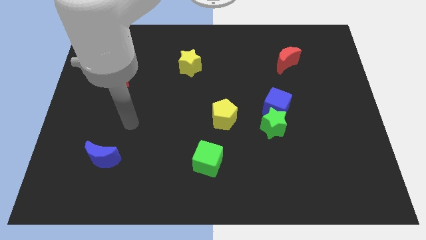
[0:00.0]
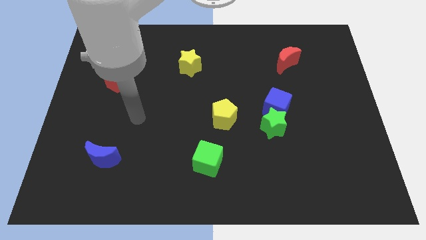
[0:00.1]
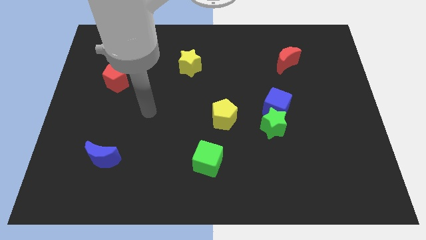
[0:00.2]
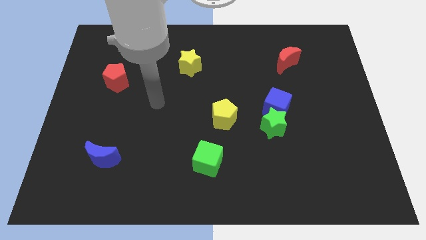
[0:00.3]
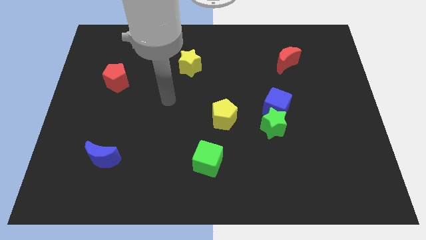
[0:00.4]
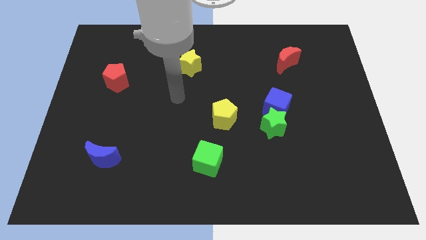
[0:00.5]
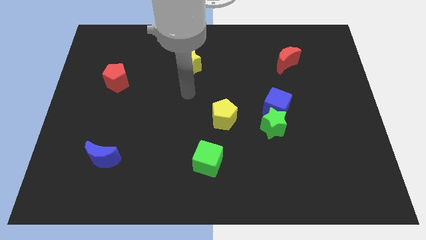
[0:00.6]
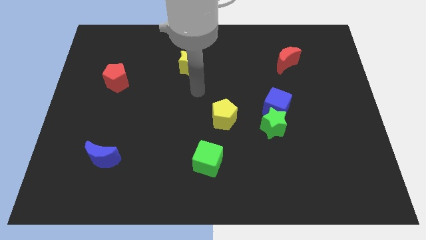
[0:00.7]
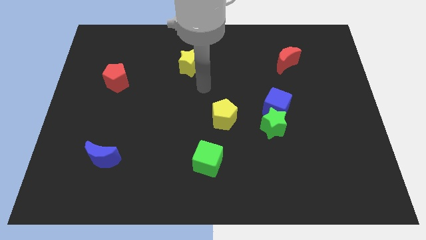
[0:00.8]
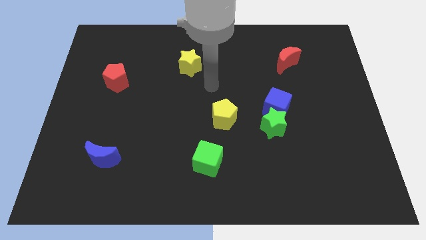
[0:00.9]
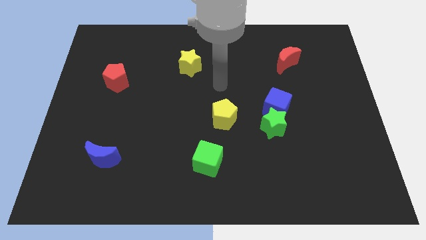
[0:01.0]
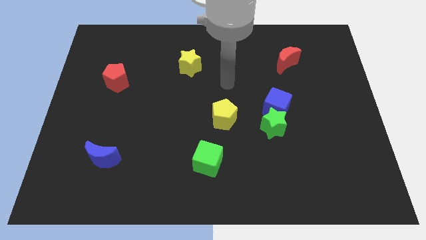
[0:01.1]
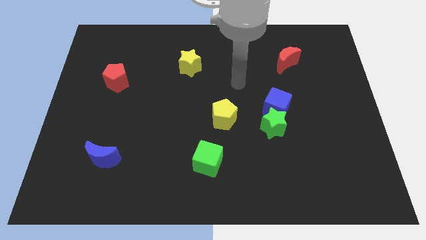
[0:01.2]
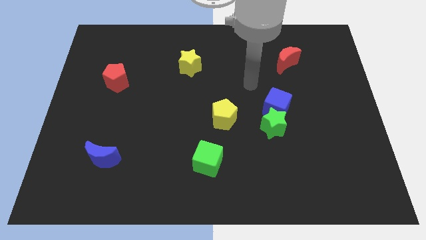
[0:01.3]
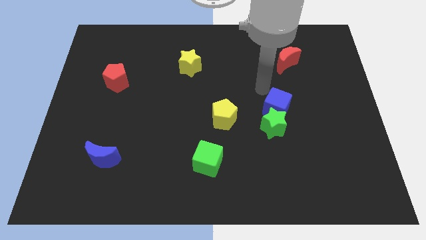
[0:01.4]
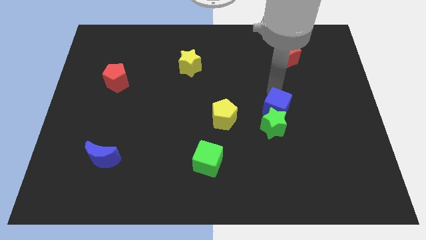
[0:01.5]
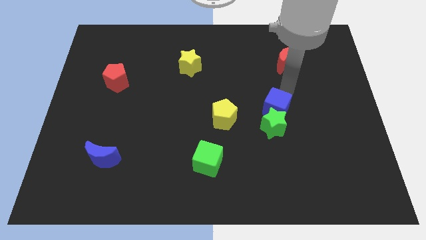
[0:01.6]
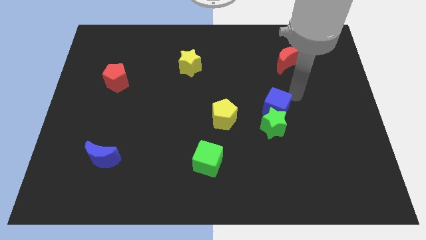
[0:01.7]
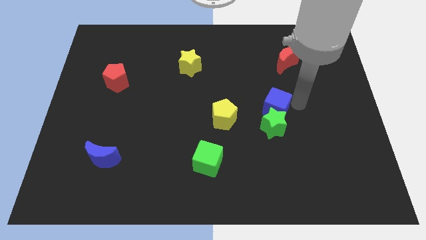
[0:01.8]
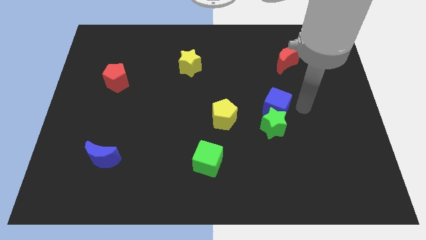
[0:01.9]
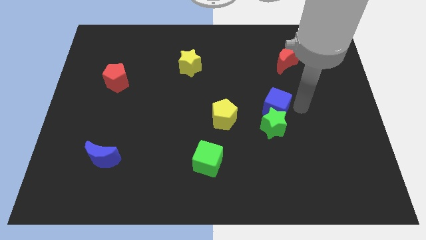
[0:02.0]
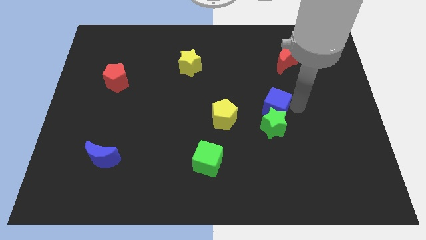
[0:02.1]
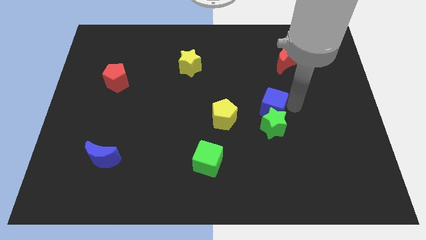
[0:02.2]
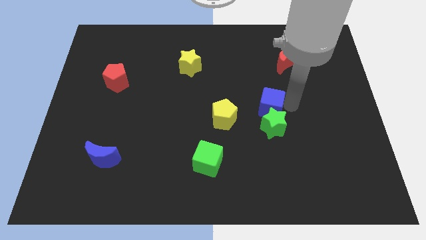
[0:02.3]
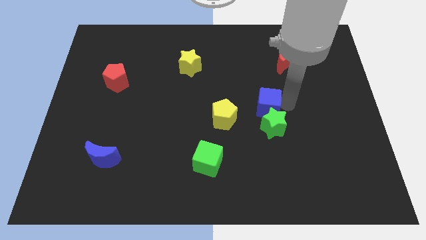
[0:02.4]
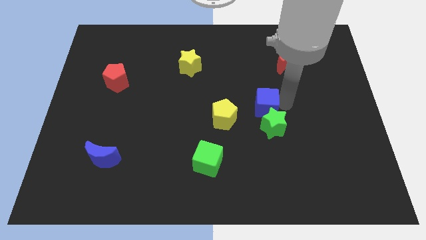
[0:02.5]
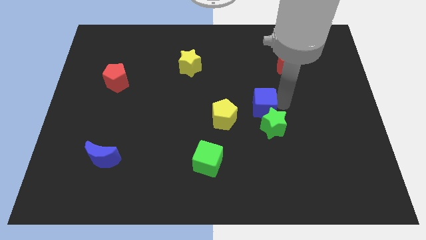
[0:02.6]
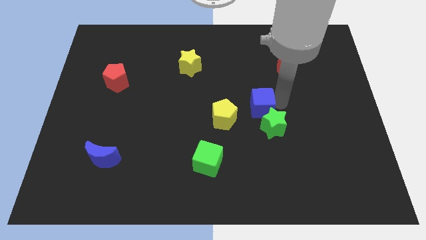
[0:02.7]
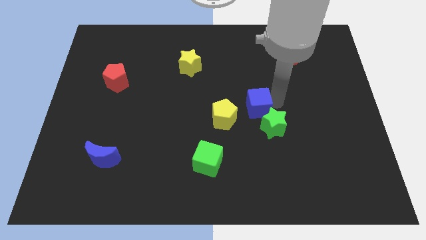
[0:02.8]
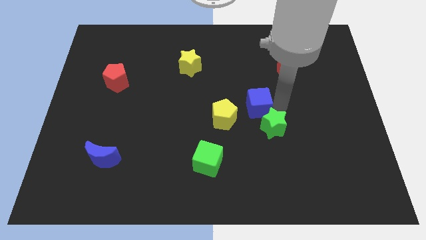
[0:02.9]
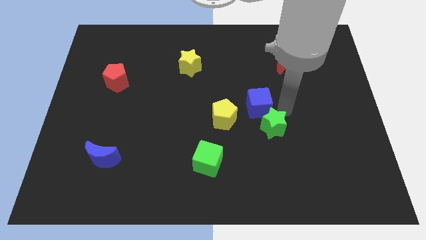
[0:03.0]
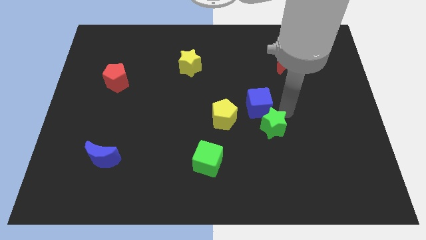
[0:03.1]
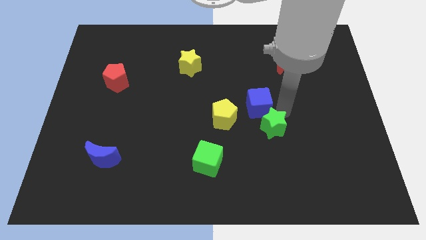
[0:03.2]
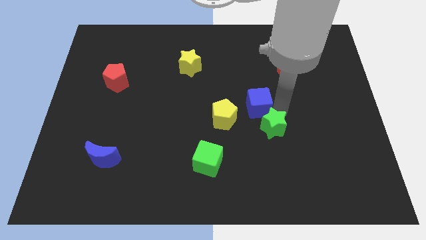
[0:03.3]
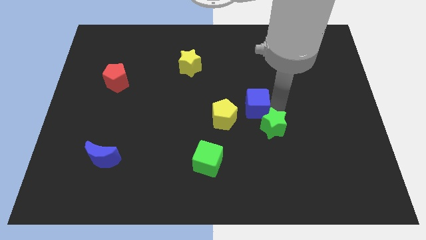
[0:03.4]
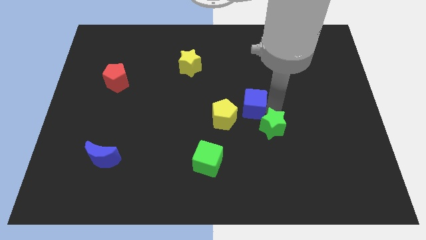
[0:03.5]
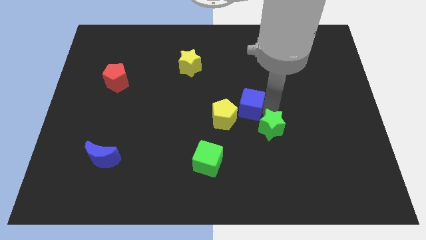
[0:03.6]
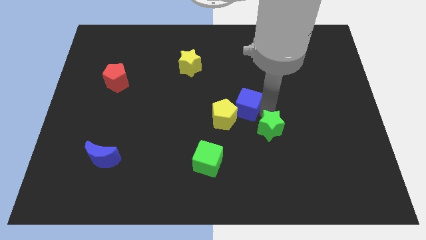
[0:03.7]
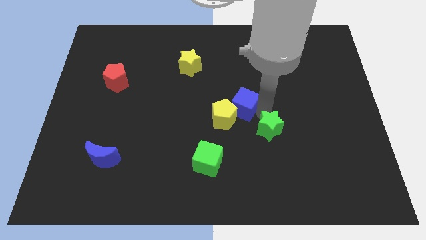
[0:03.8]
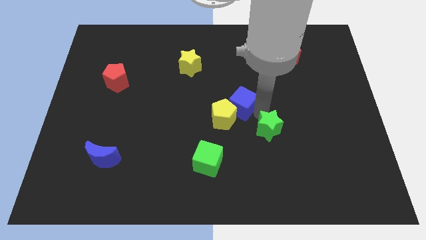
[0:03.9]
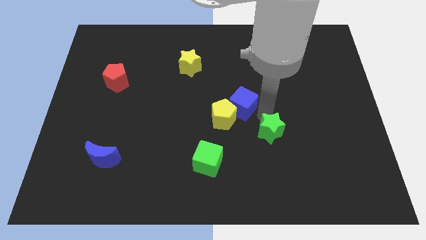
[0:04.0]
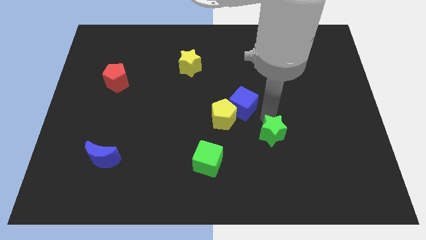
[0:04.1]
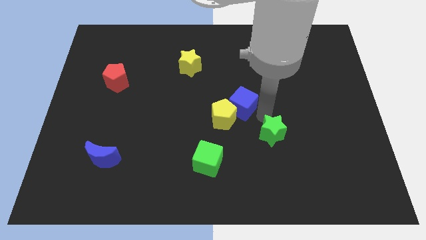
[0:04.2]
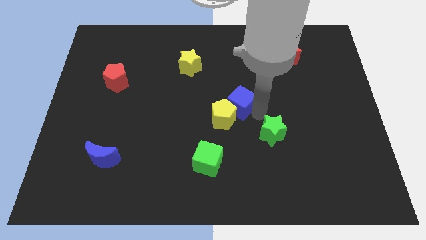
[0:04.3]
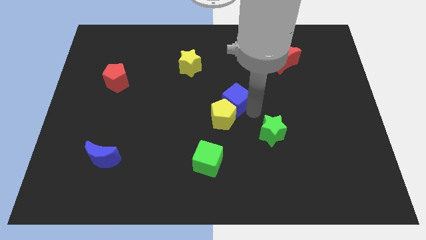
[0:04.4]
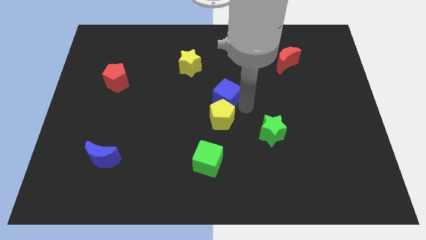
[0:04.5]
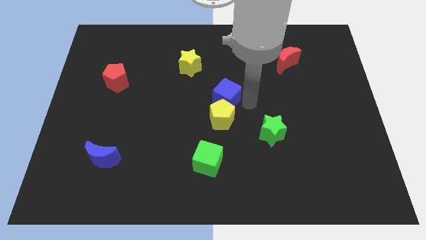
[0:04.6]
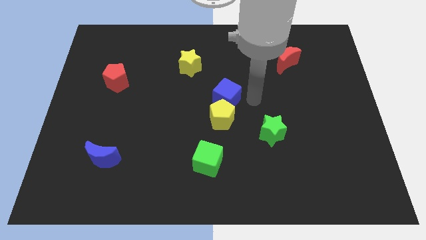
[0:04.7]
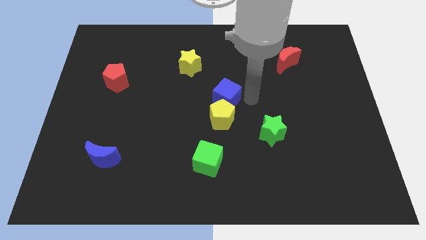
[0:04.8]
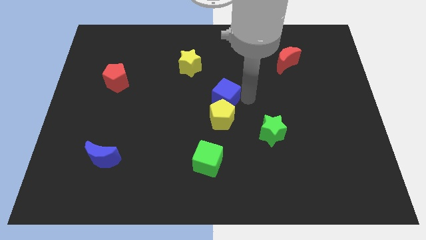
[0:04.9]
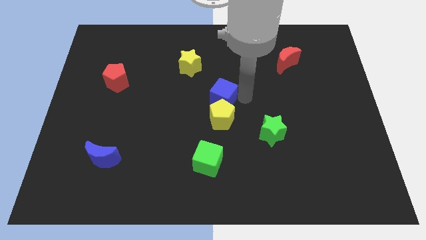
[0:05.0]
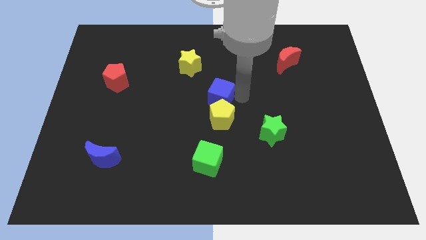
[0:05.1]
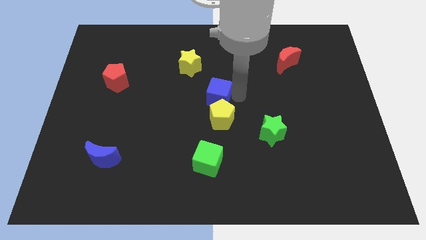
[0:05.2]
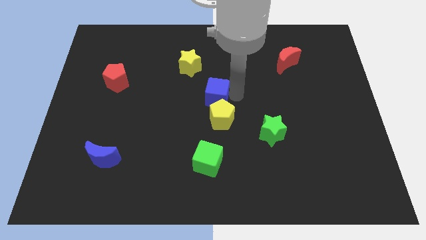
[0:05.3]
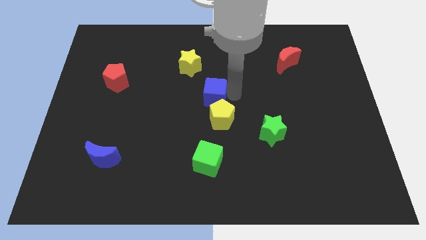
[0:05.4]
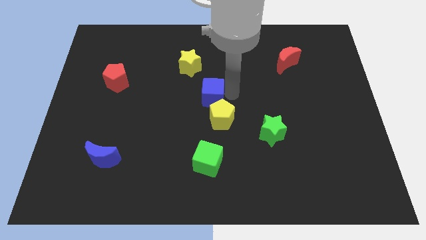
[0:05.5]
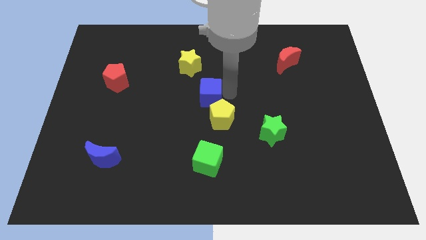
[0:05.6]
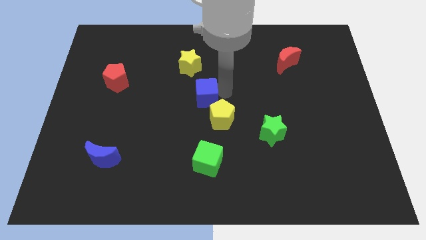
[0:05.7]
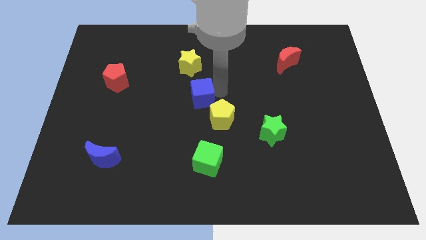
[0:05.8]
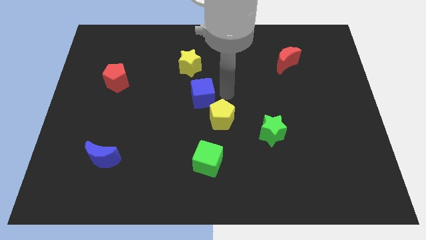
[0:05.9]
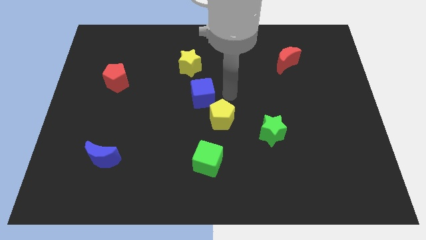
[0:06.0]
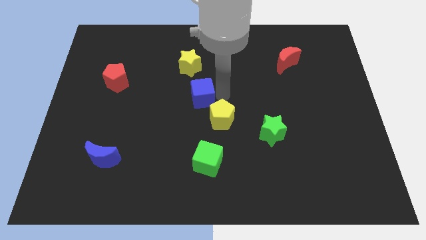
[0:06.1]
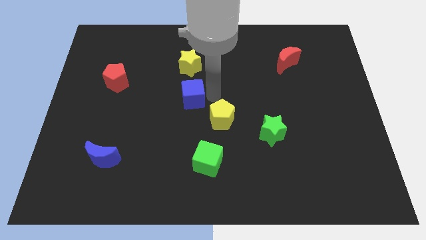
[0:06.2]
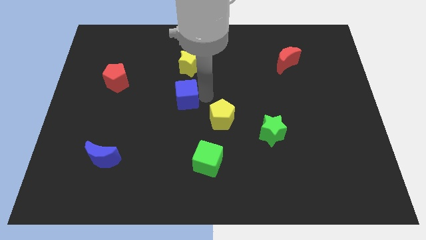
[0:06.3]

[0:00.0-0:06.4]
move the blue cube to the left

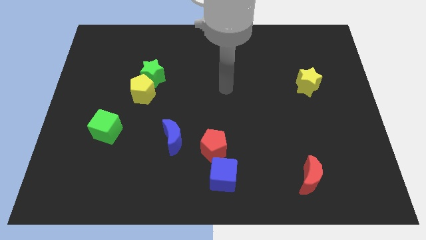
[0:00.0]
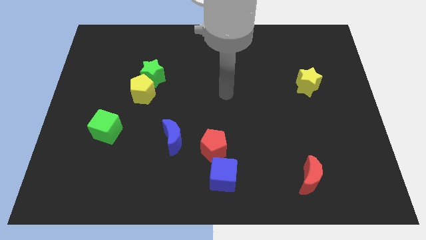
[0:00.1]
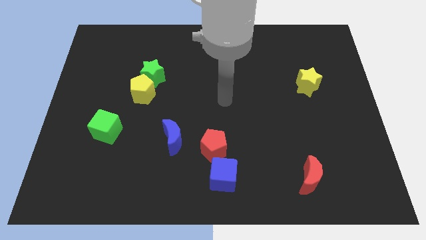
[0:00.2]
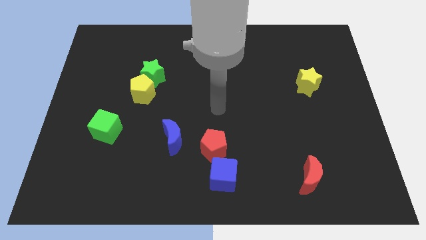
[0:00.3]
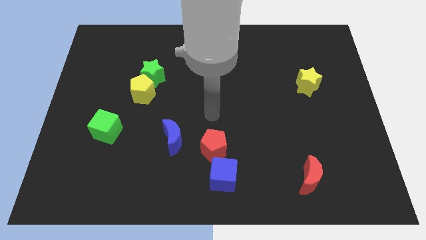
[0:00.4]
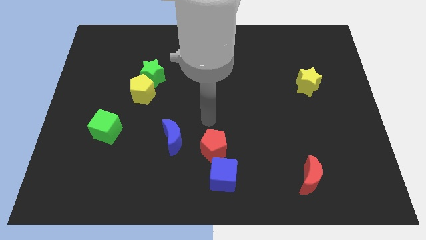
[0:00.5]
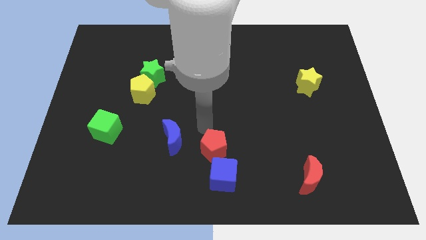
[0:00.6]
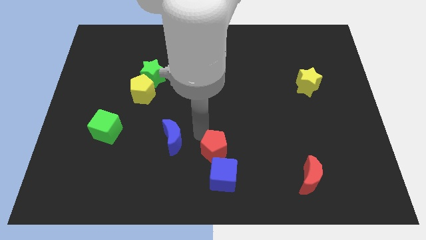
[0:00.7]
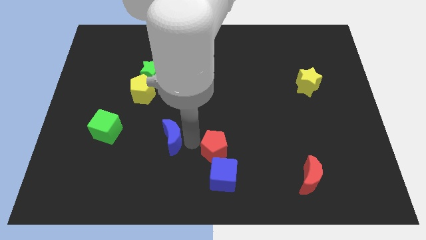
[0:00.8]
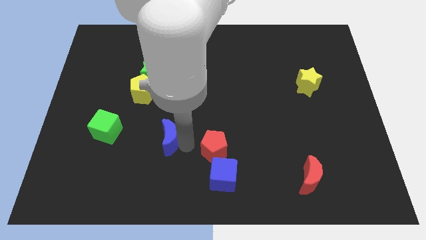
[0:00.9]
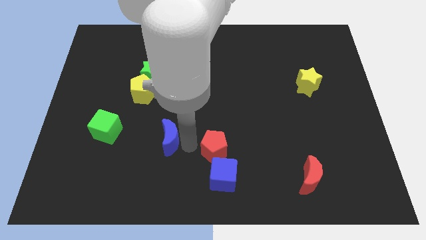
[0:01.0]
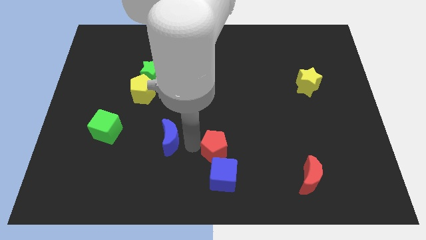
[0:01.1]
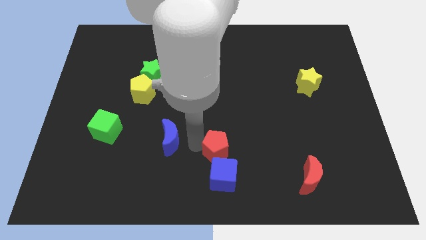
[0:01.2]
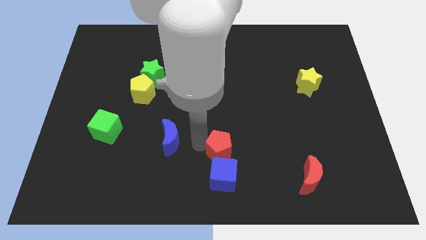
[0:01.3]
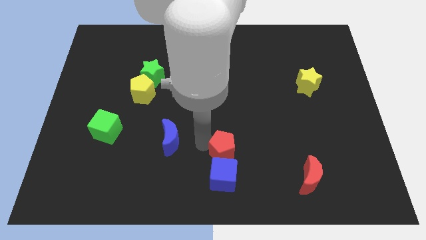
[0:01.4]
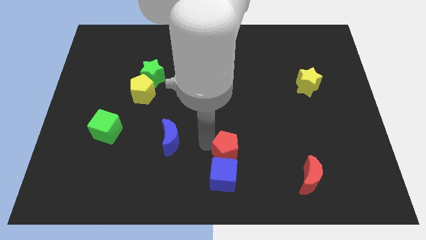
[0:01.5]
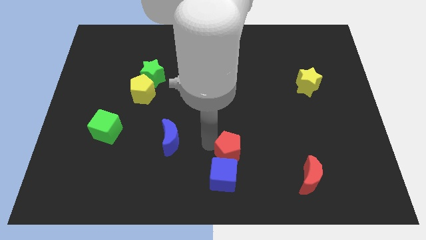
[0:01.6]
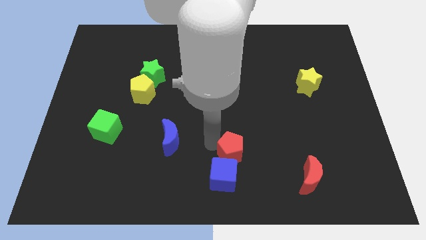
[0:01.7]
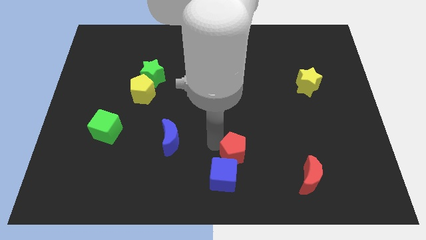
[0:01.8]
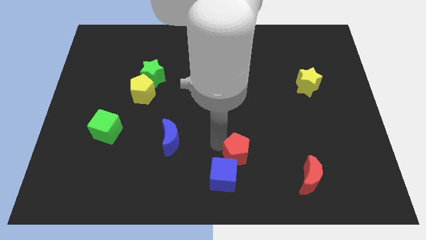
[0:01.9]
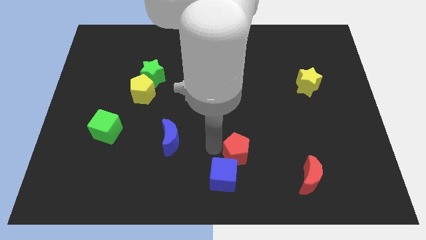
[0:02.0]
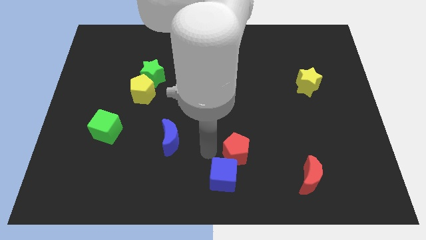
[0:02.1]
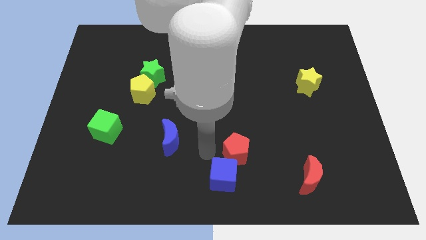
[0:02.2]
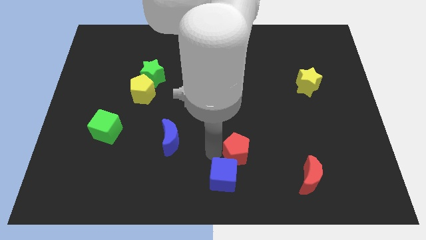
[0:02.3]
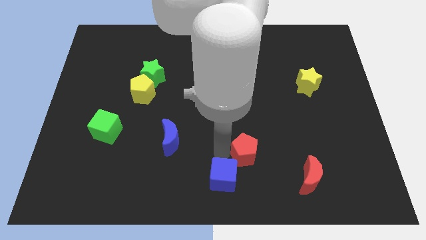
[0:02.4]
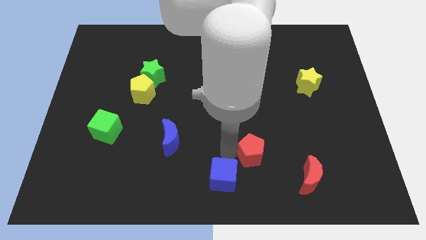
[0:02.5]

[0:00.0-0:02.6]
move the red pentagon to the right a bit
